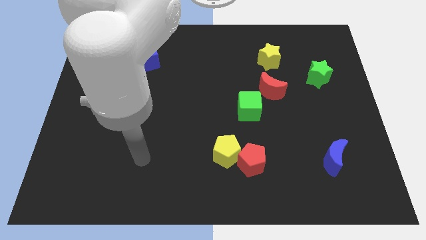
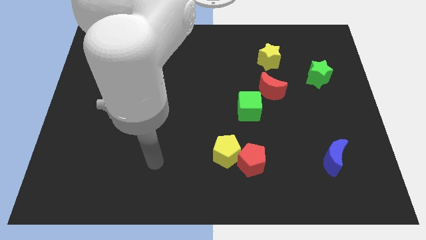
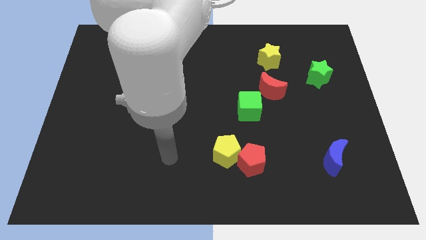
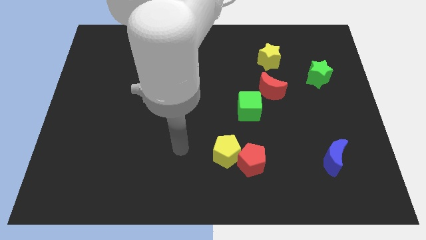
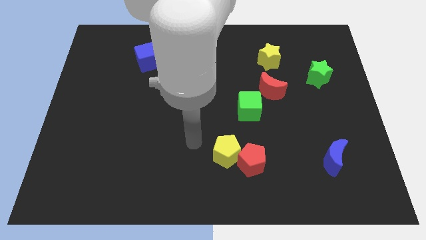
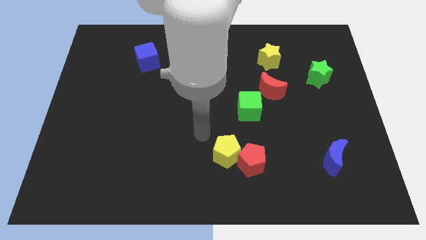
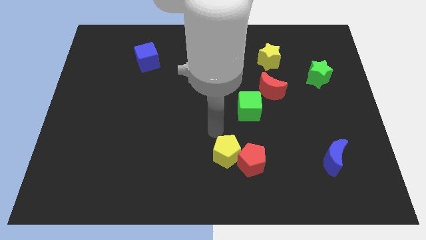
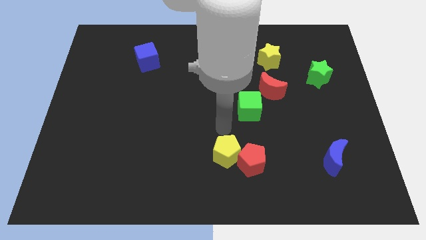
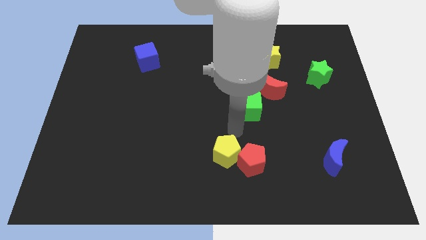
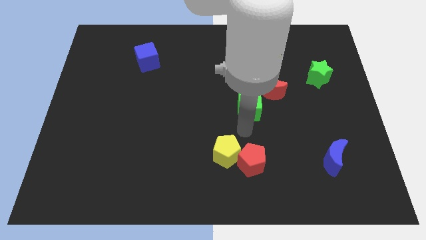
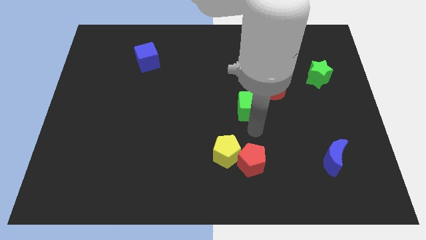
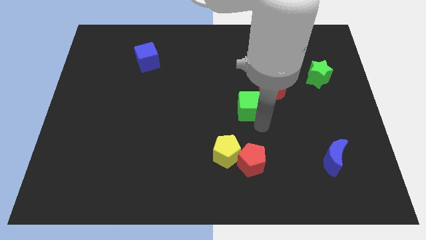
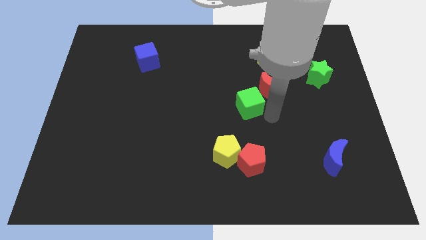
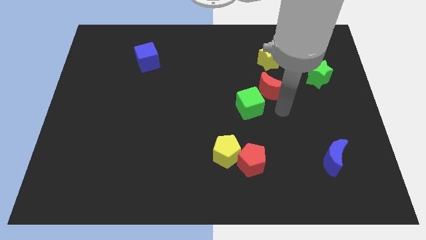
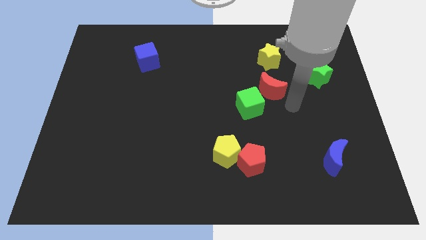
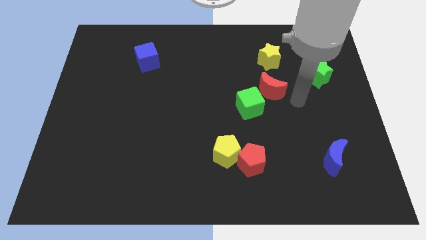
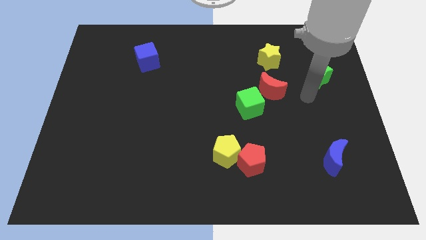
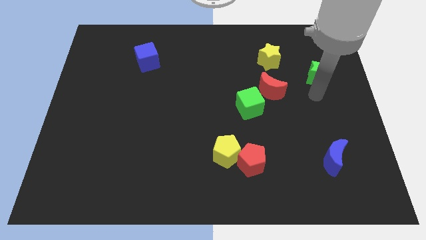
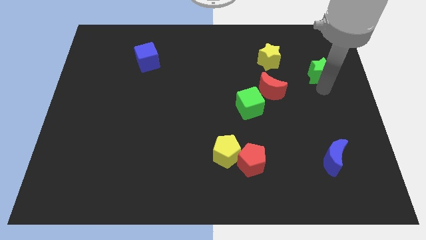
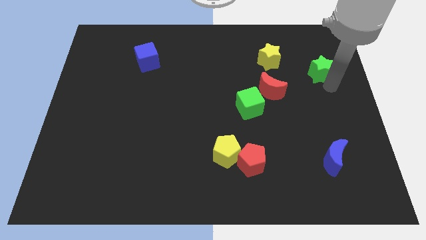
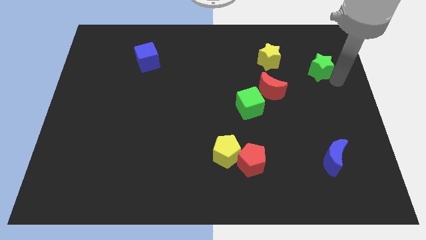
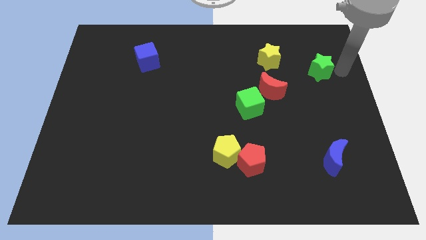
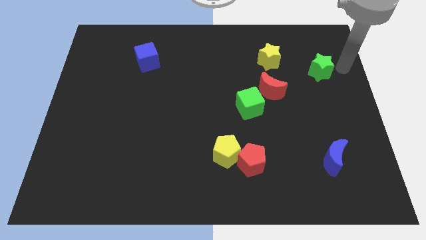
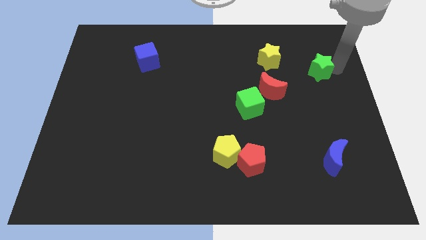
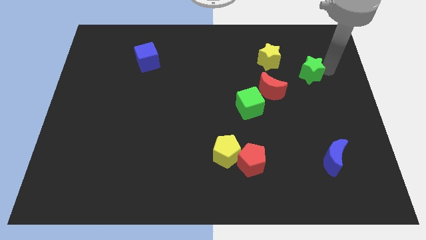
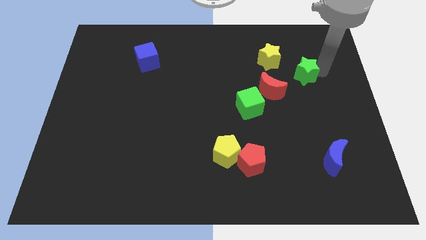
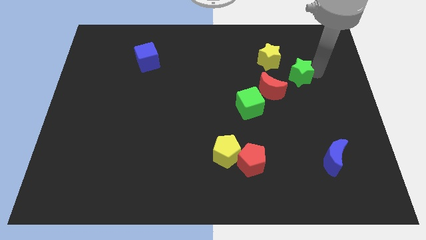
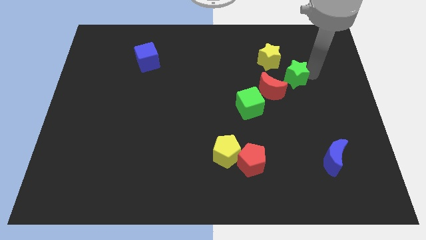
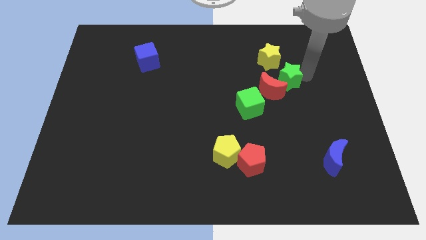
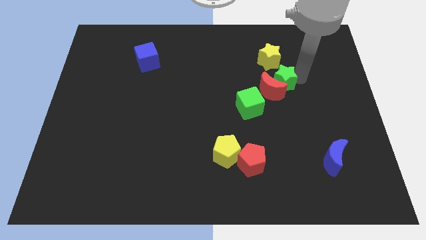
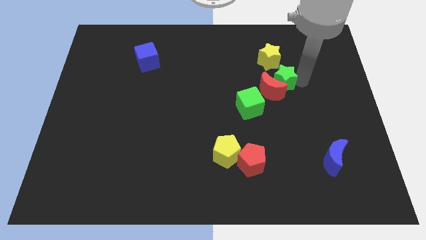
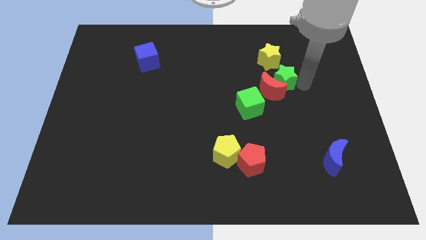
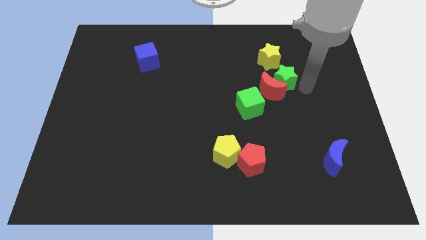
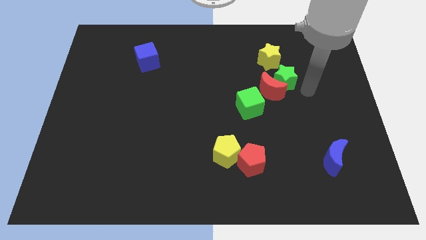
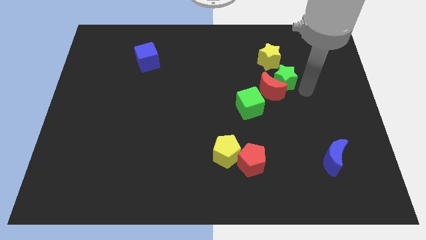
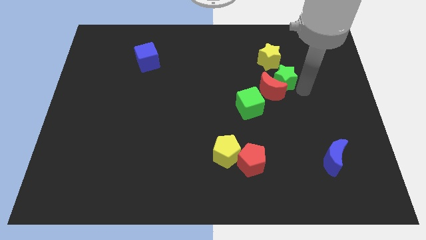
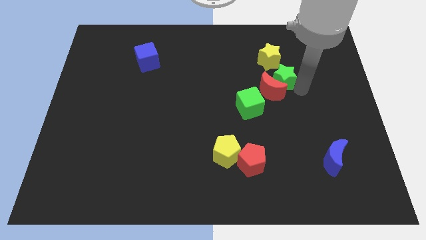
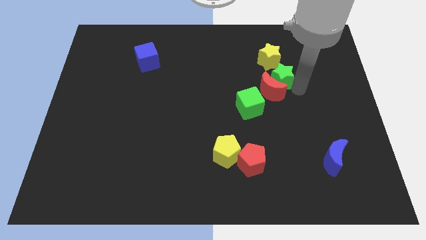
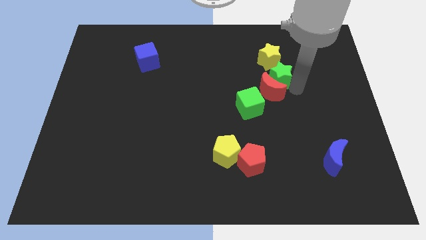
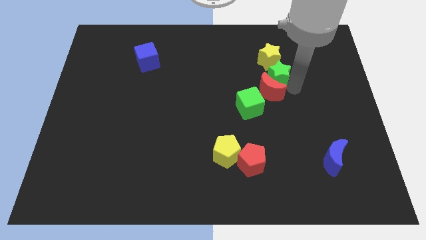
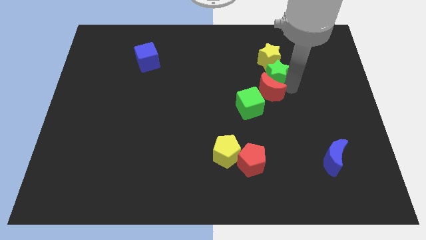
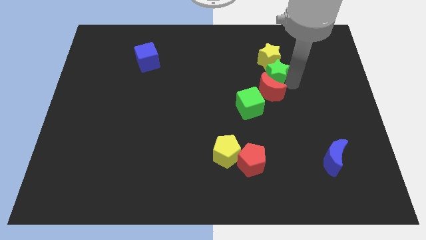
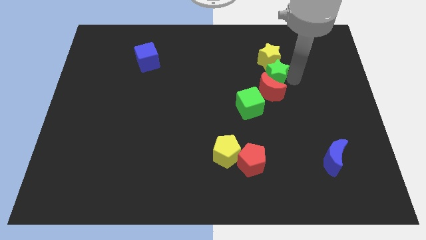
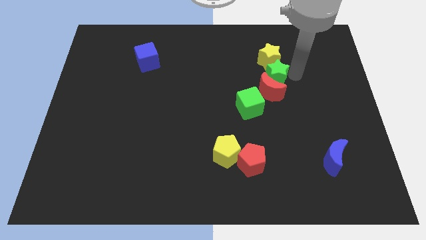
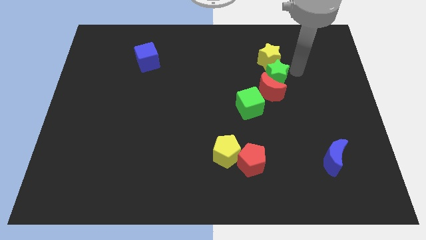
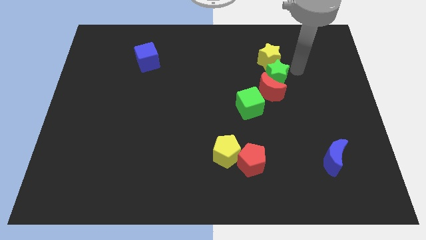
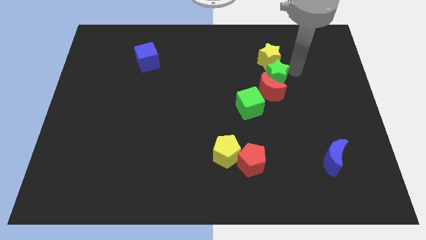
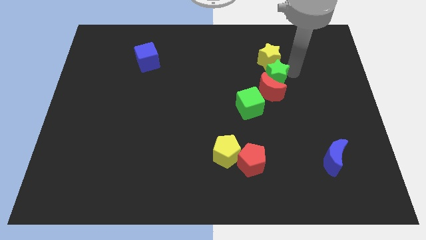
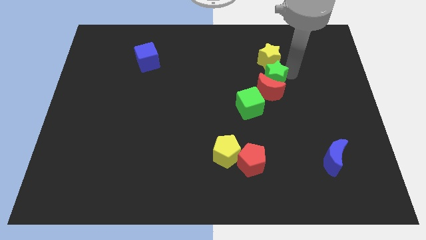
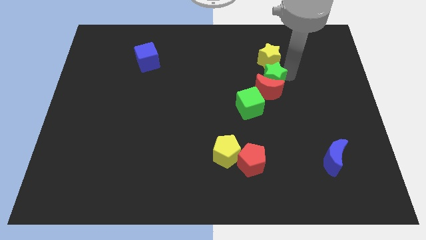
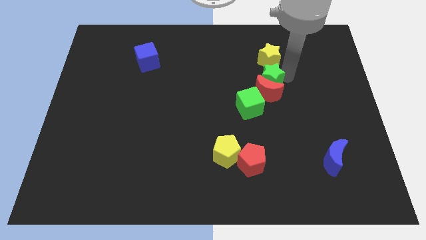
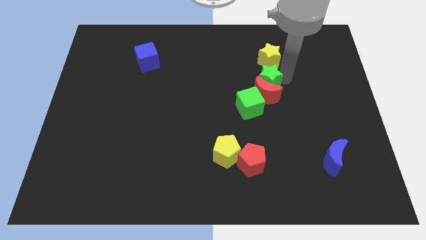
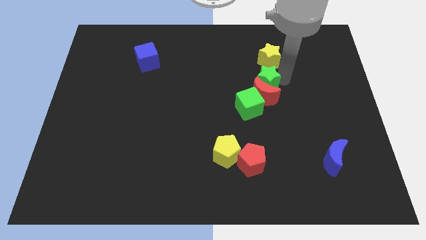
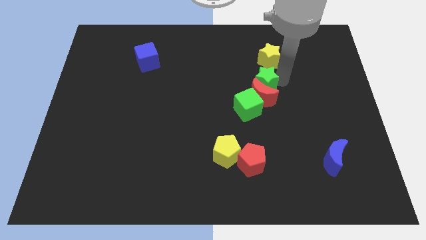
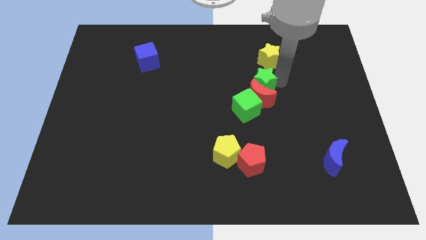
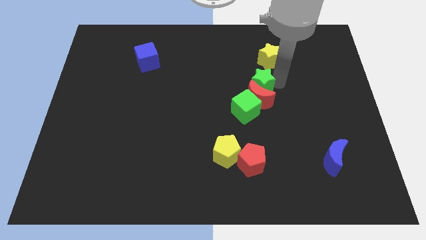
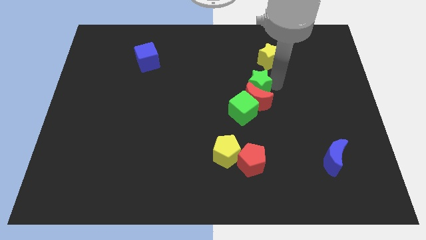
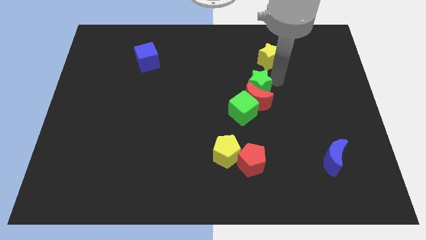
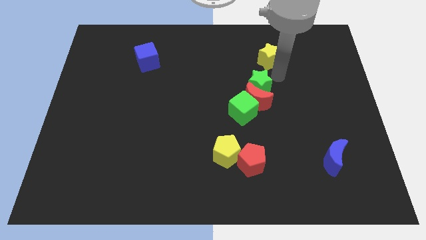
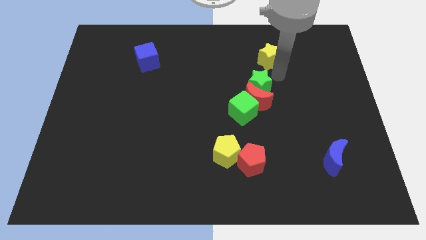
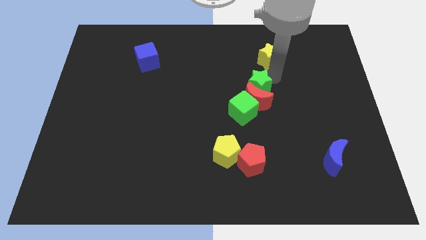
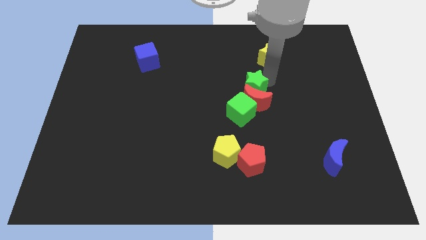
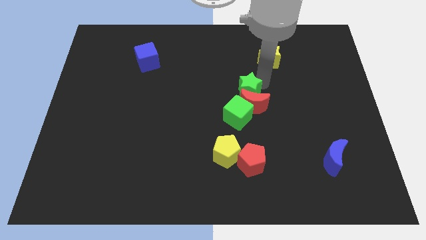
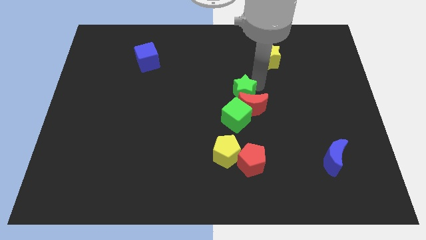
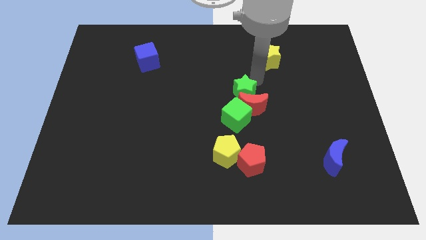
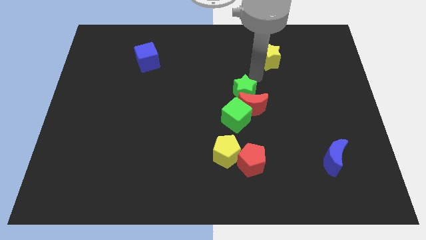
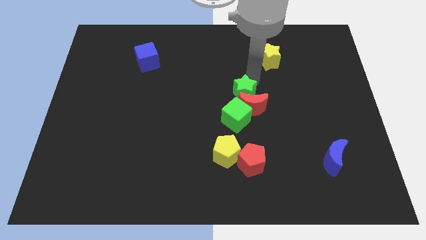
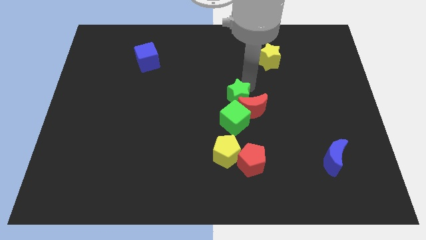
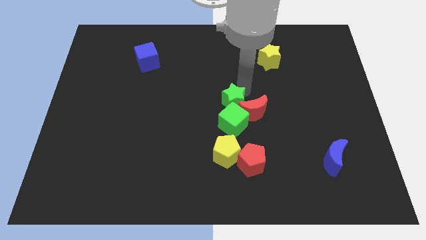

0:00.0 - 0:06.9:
slide the green star above the yellow pentagon

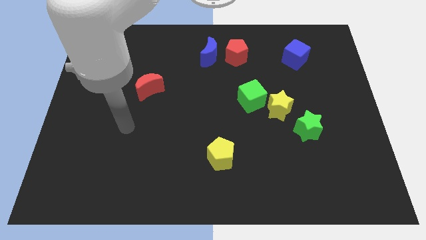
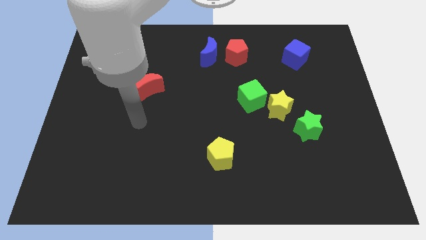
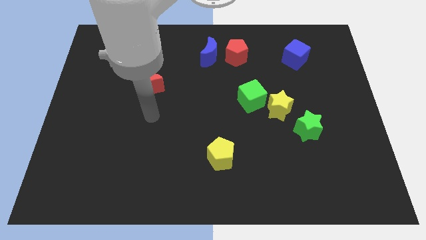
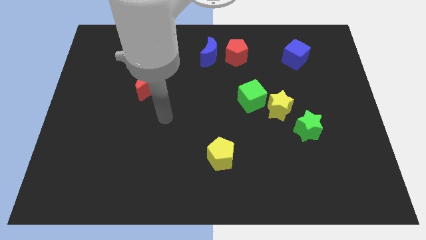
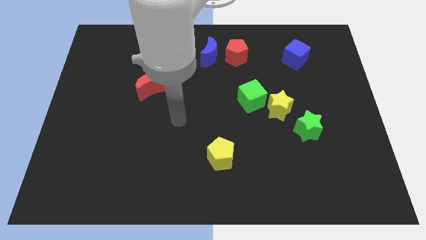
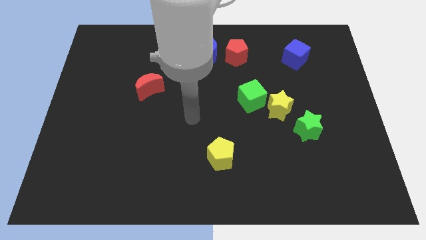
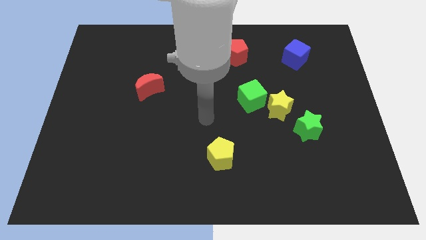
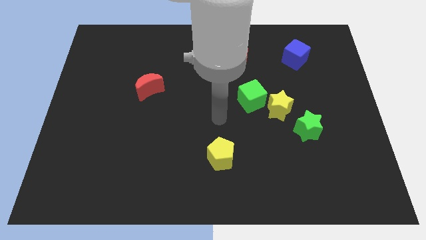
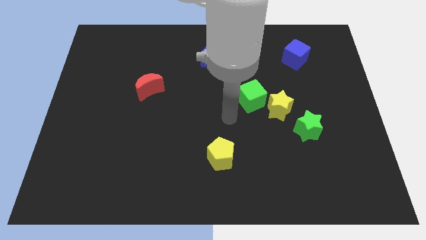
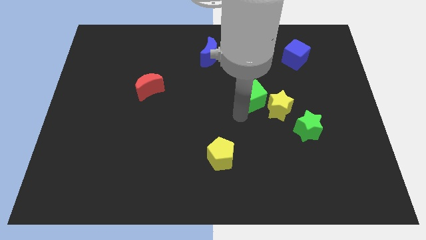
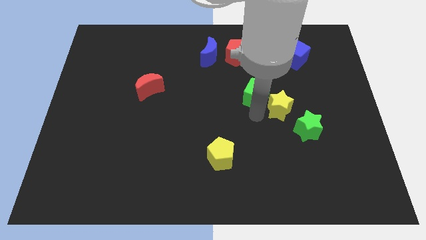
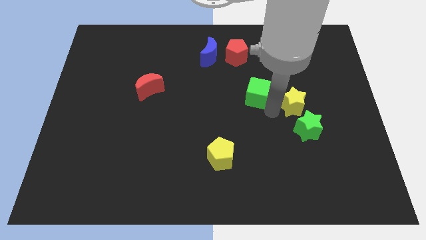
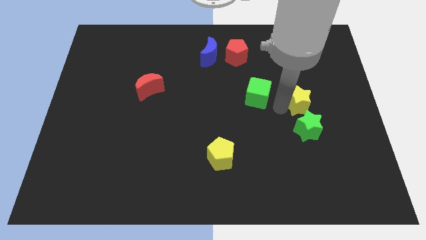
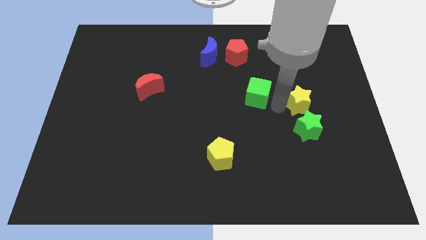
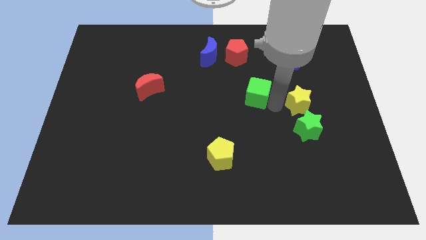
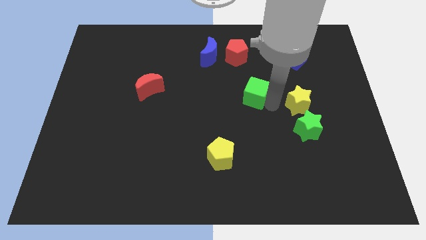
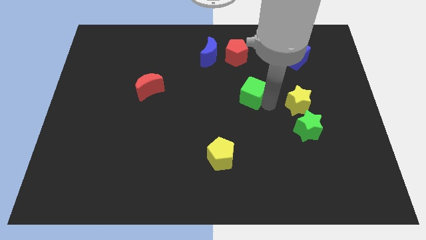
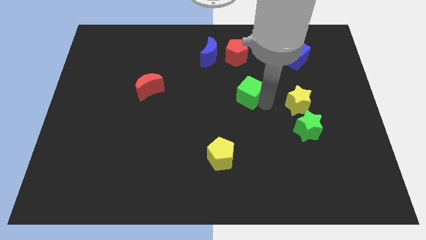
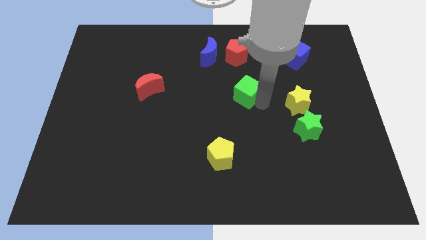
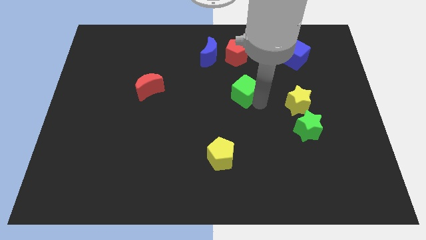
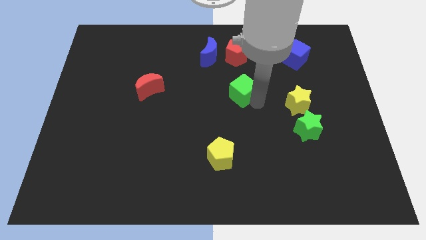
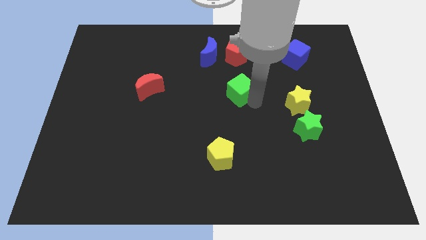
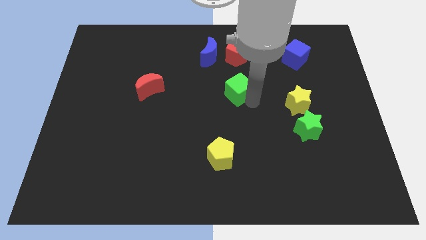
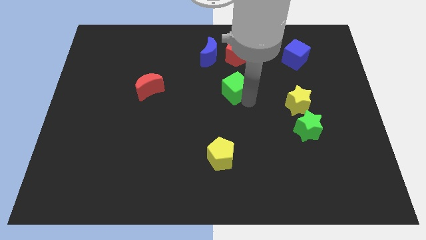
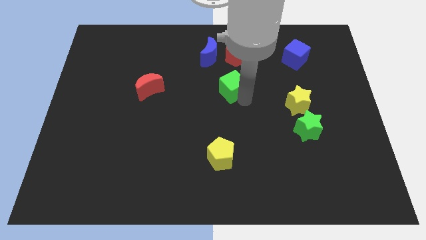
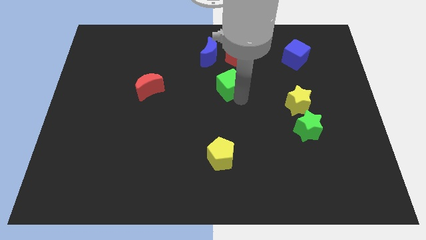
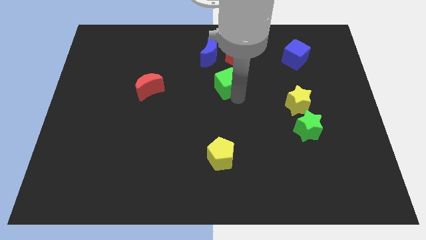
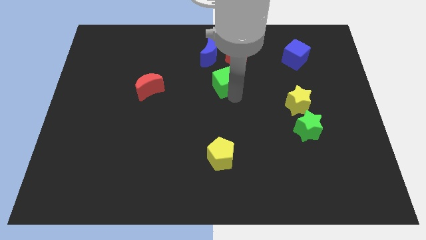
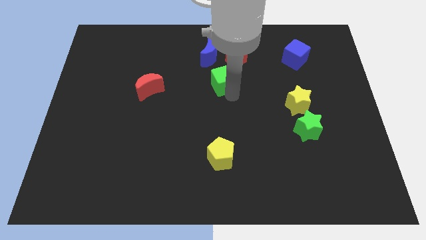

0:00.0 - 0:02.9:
put the green cube to the bottom left side of the red pentagon
